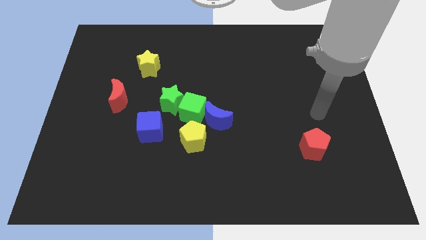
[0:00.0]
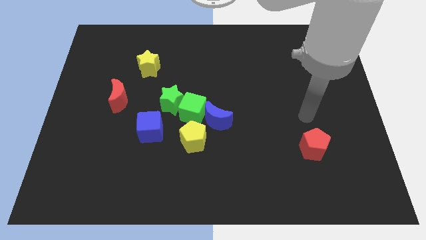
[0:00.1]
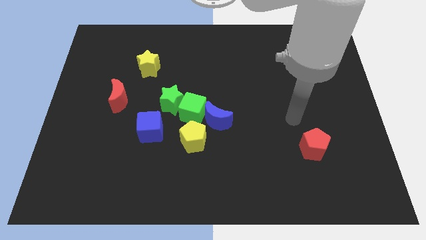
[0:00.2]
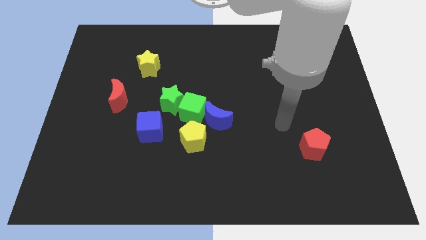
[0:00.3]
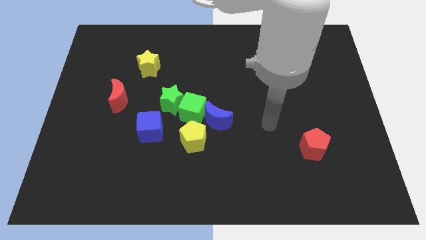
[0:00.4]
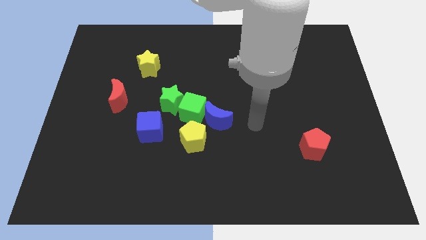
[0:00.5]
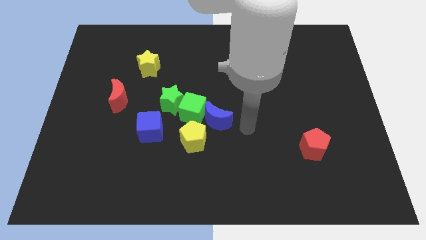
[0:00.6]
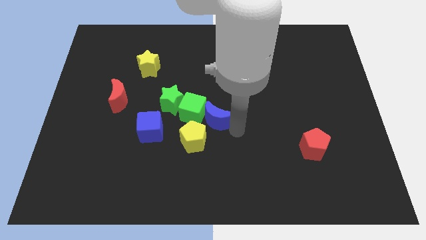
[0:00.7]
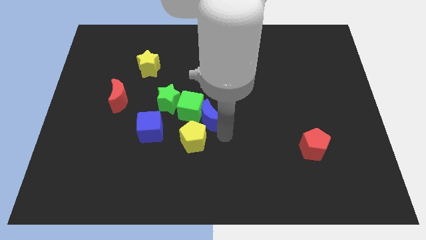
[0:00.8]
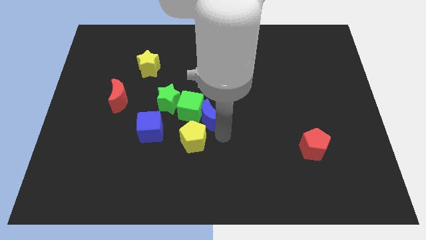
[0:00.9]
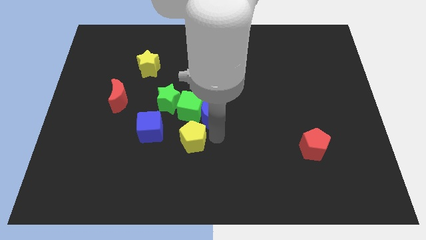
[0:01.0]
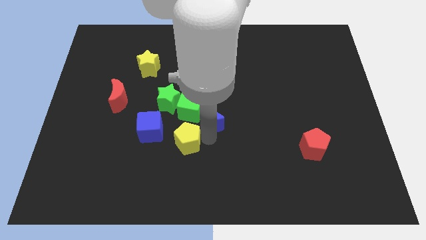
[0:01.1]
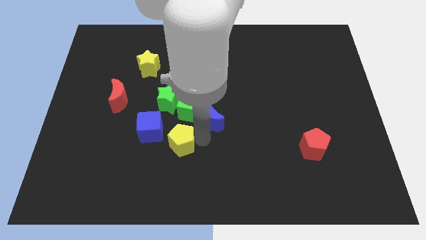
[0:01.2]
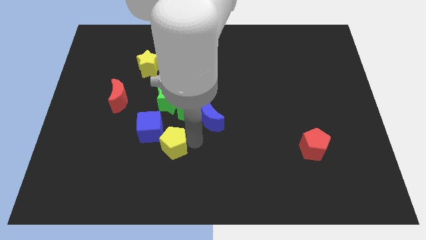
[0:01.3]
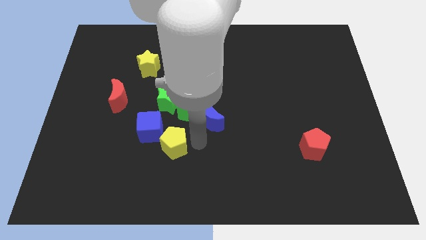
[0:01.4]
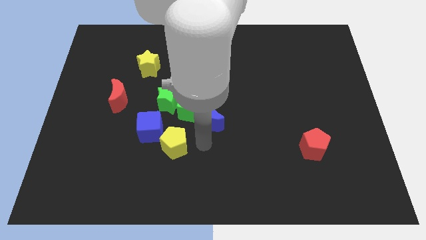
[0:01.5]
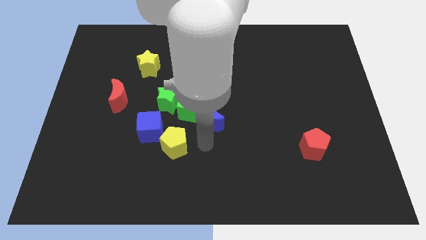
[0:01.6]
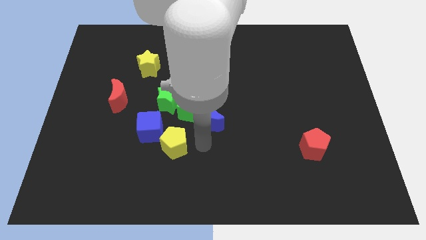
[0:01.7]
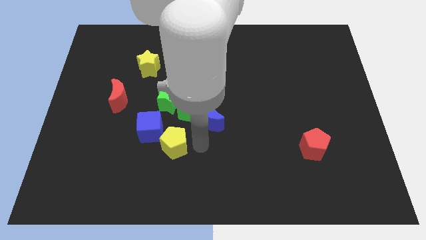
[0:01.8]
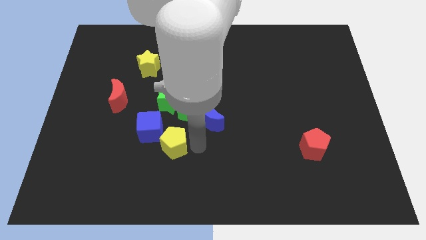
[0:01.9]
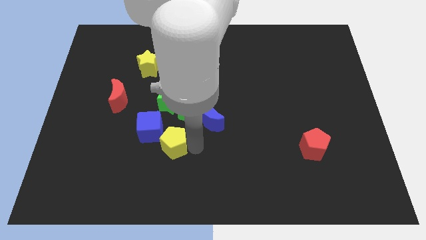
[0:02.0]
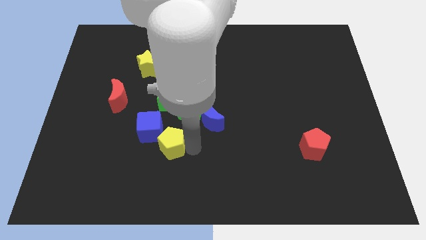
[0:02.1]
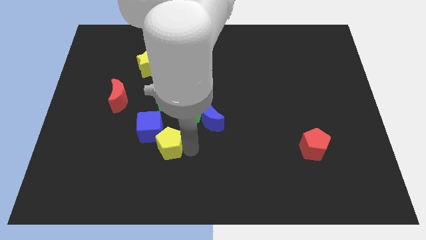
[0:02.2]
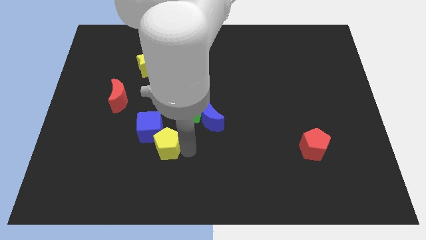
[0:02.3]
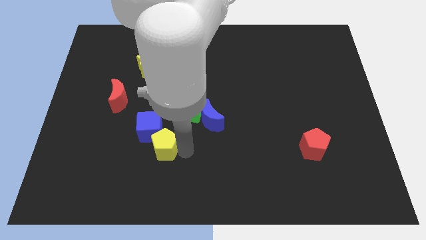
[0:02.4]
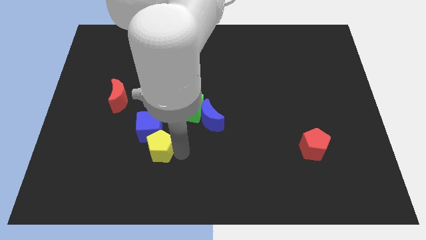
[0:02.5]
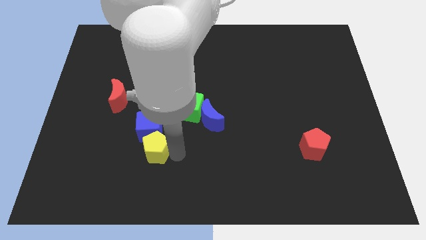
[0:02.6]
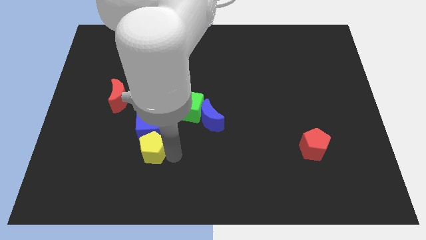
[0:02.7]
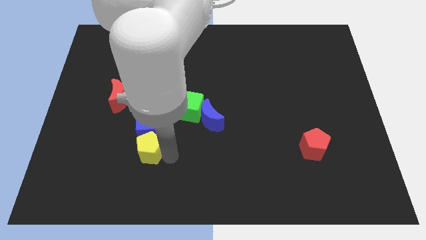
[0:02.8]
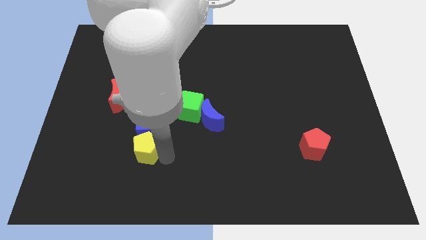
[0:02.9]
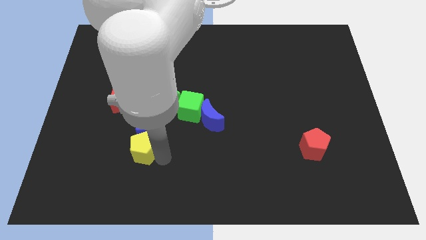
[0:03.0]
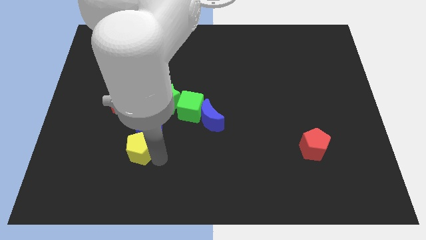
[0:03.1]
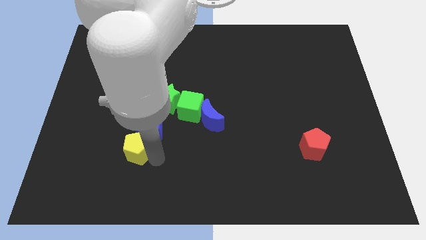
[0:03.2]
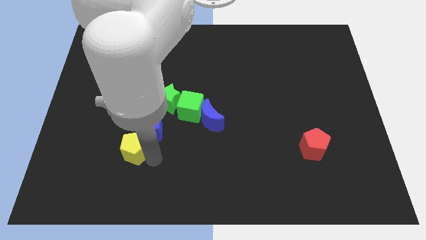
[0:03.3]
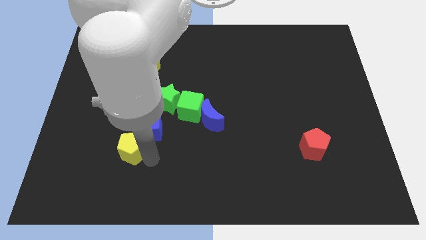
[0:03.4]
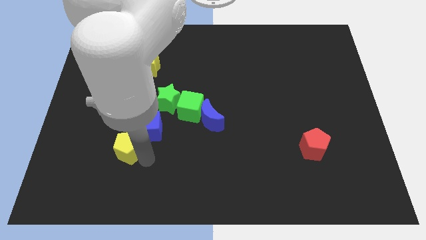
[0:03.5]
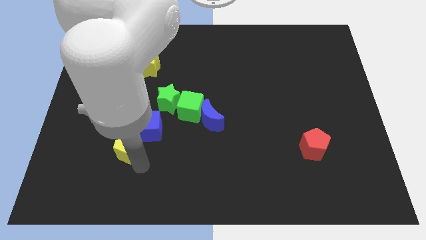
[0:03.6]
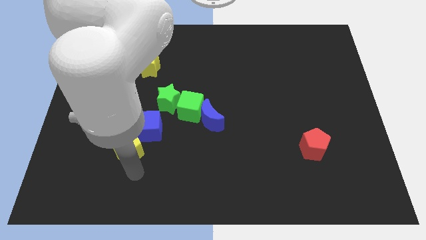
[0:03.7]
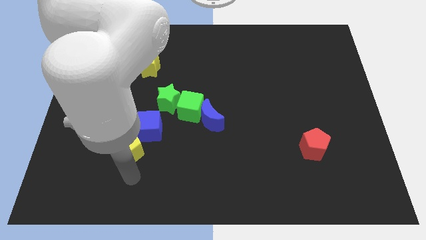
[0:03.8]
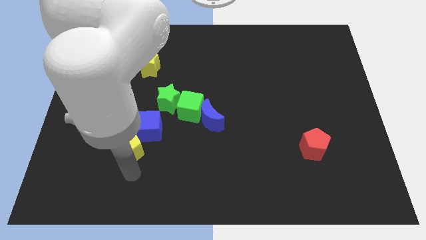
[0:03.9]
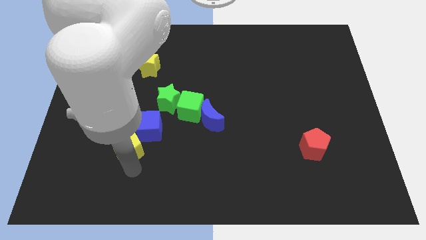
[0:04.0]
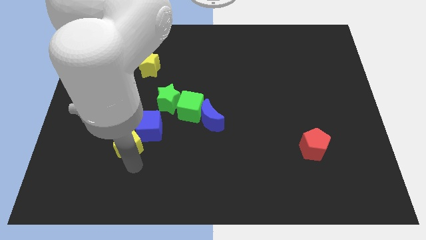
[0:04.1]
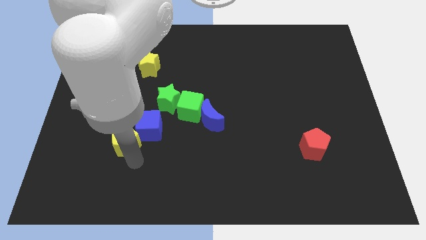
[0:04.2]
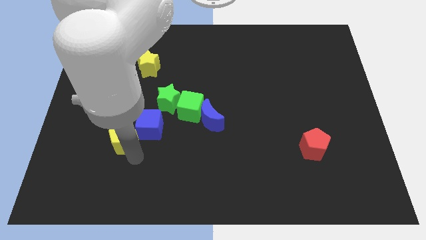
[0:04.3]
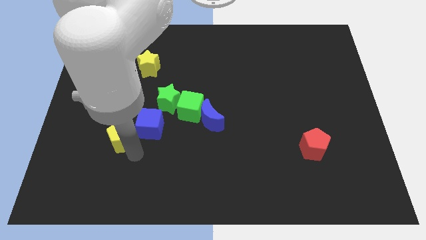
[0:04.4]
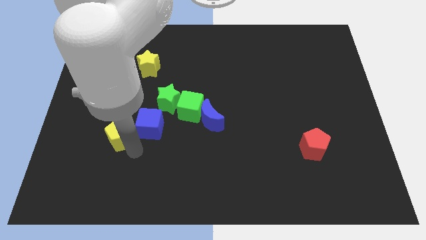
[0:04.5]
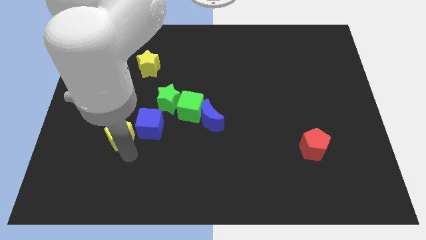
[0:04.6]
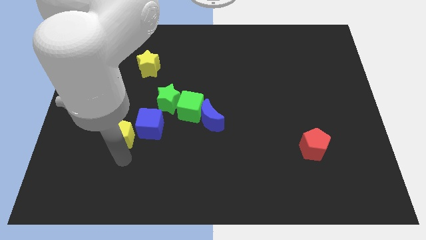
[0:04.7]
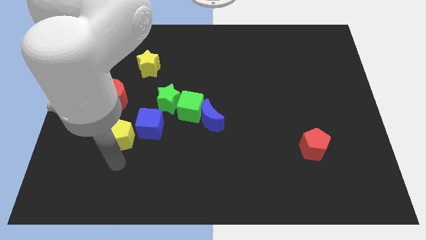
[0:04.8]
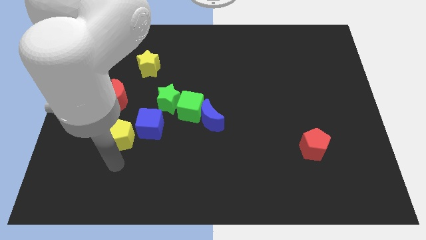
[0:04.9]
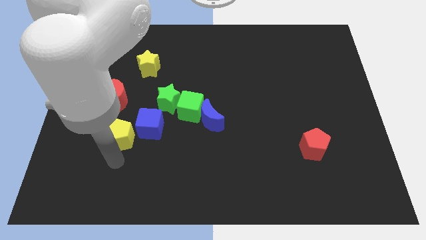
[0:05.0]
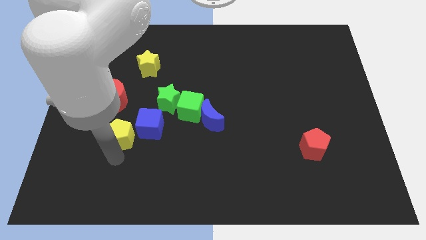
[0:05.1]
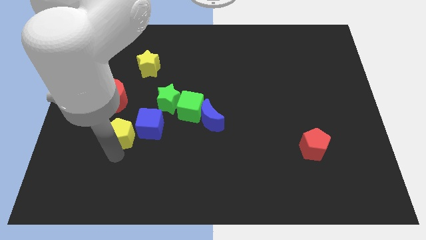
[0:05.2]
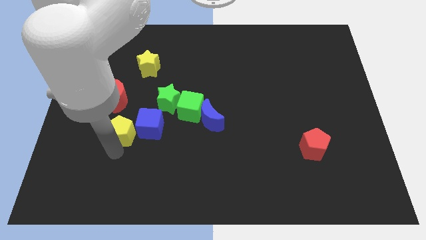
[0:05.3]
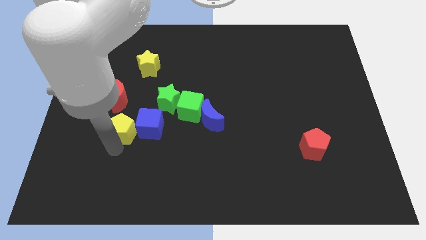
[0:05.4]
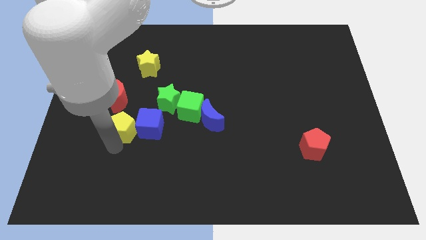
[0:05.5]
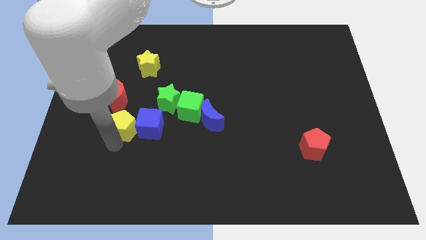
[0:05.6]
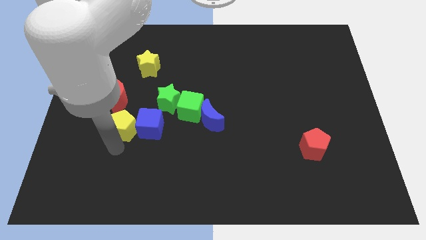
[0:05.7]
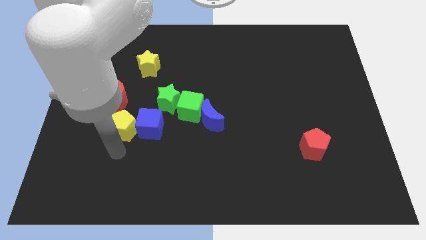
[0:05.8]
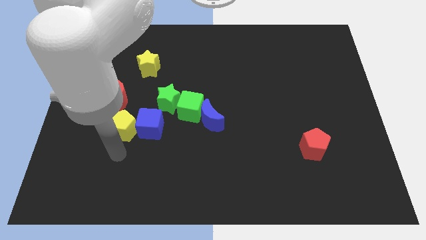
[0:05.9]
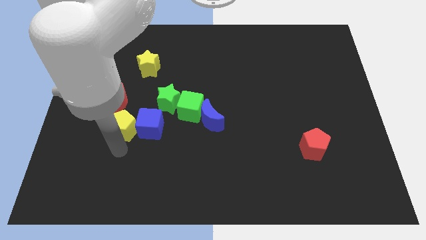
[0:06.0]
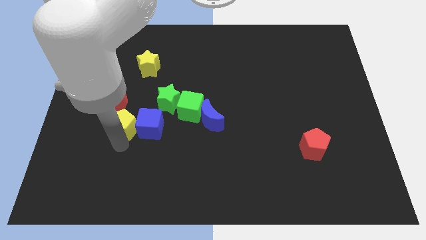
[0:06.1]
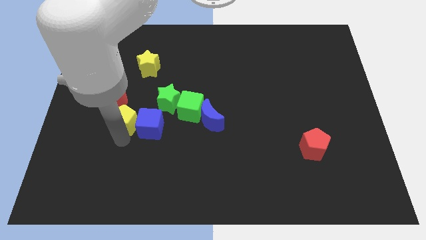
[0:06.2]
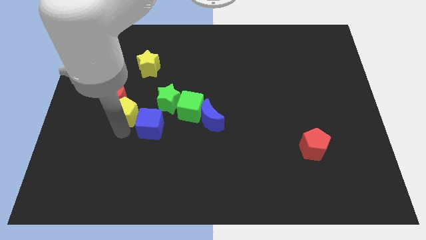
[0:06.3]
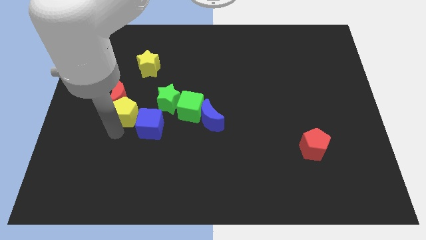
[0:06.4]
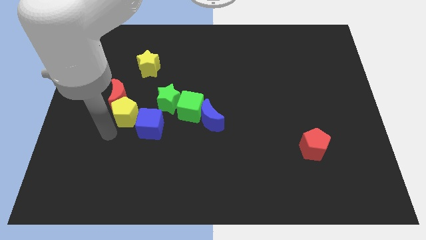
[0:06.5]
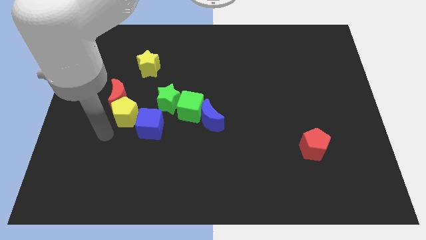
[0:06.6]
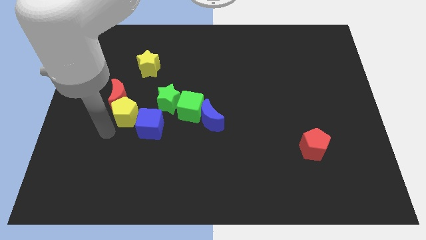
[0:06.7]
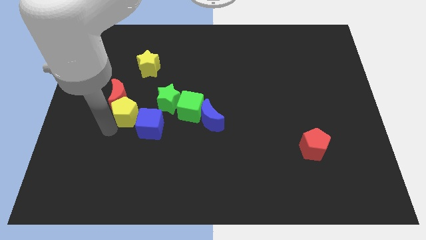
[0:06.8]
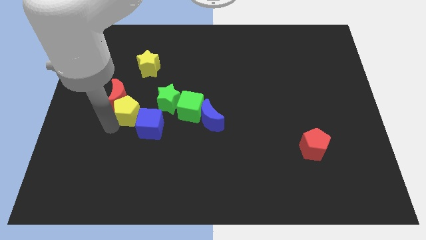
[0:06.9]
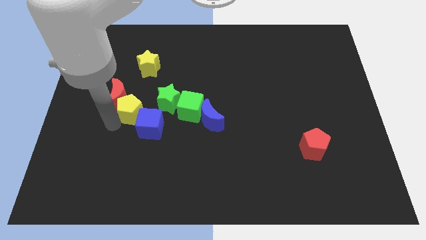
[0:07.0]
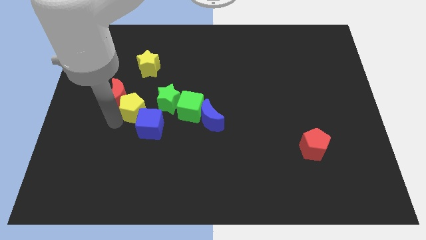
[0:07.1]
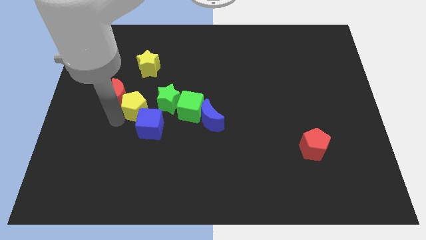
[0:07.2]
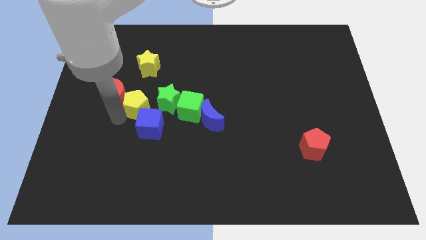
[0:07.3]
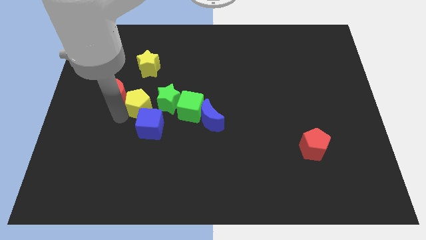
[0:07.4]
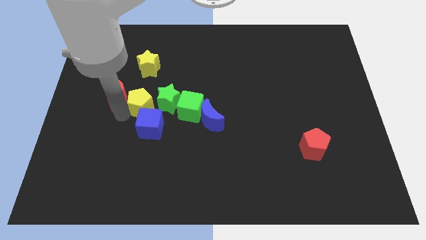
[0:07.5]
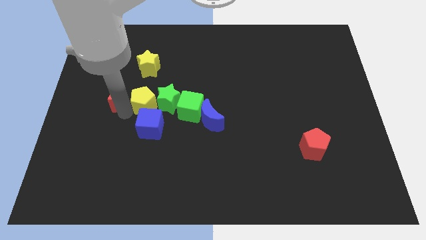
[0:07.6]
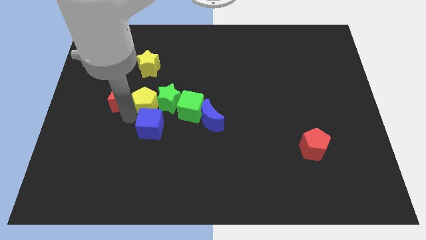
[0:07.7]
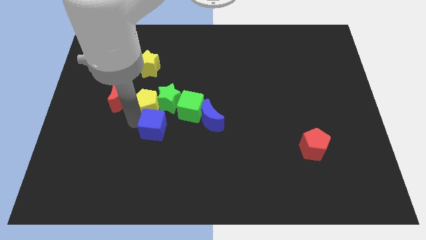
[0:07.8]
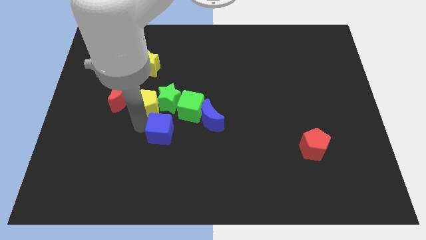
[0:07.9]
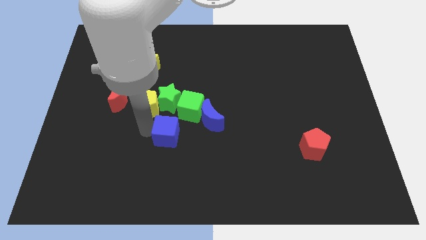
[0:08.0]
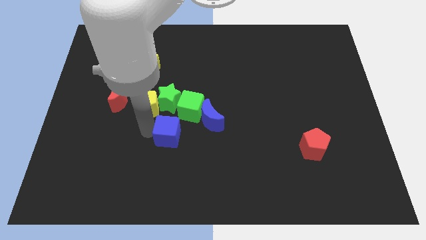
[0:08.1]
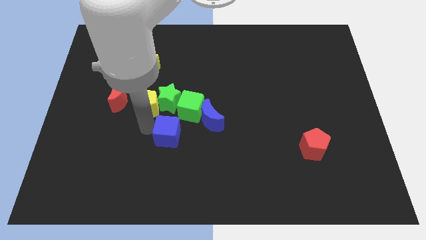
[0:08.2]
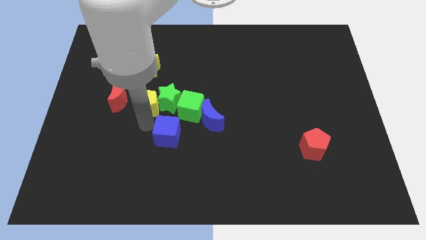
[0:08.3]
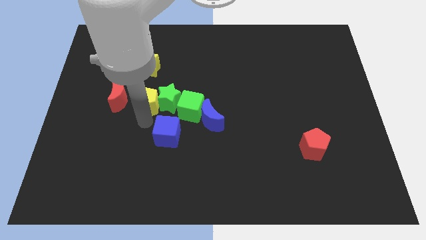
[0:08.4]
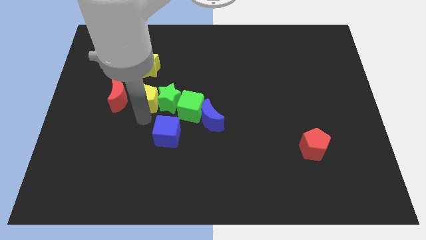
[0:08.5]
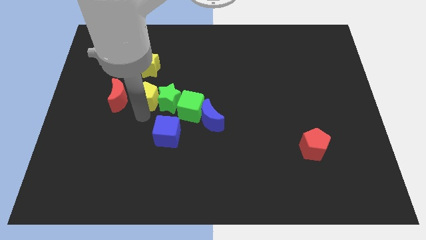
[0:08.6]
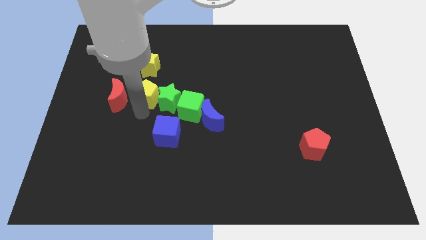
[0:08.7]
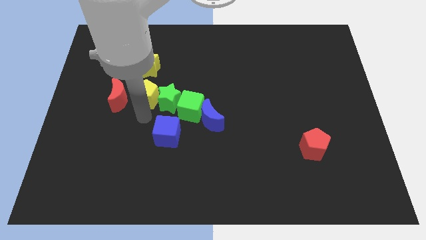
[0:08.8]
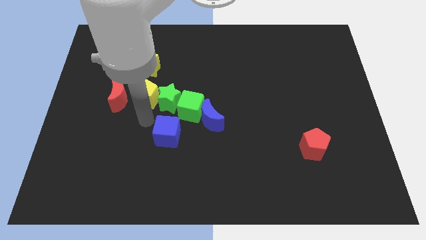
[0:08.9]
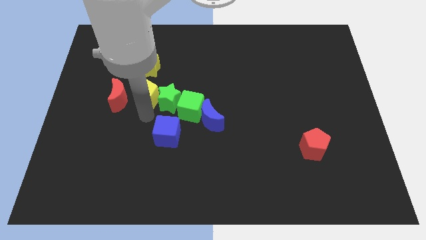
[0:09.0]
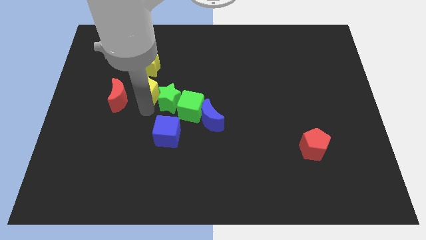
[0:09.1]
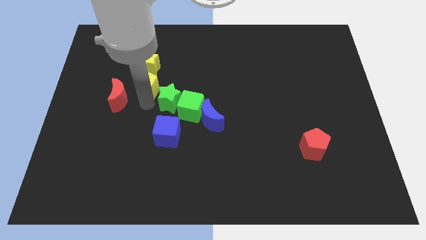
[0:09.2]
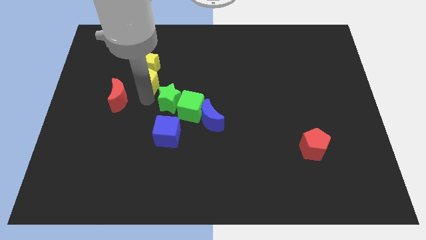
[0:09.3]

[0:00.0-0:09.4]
push the yellow pentagon to the yellow star
